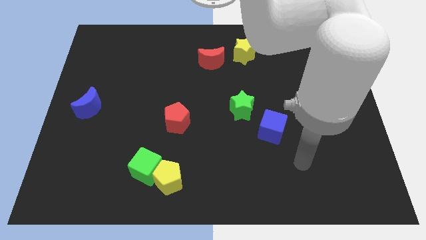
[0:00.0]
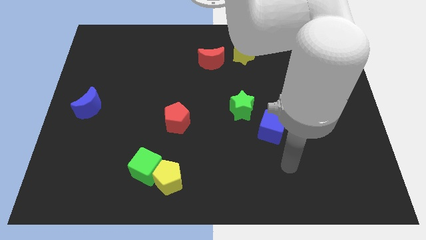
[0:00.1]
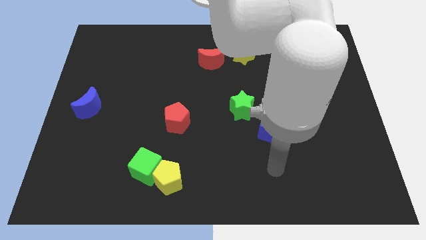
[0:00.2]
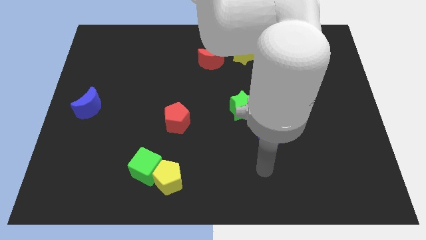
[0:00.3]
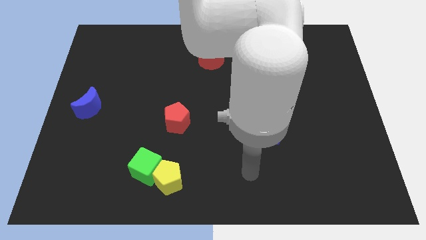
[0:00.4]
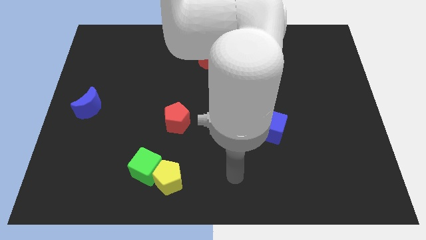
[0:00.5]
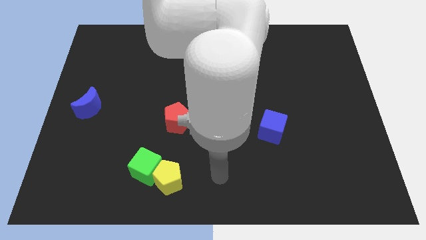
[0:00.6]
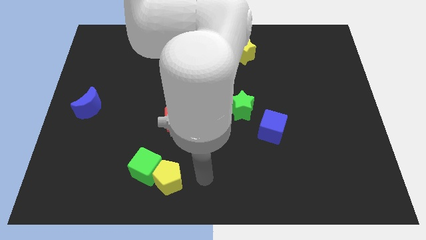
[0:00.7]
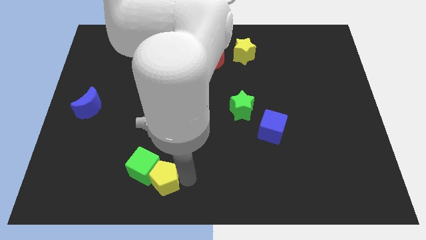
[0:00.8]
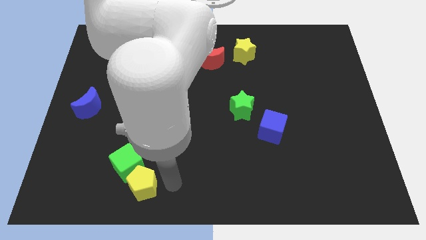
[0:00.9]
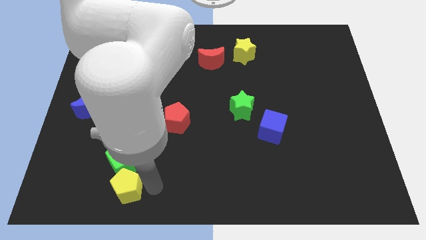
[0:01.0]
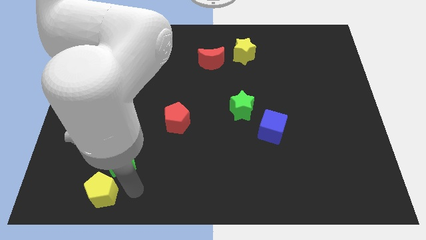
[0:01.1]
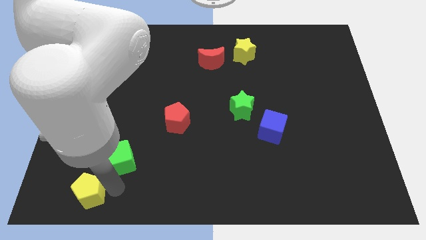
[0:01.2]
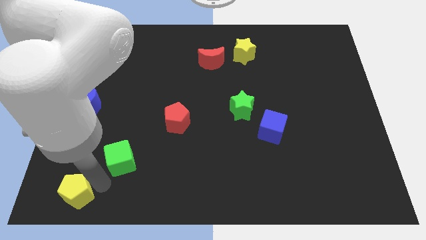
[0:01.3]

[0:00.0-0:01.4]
separate the green cube from the yellow pentagon

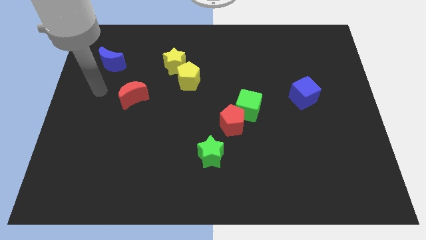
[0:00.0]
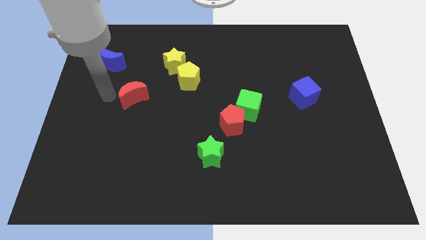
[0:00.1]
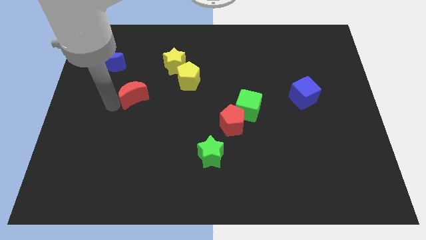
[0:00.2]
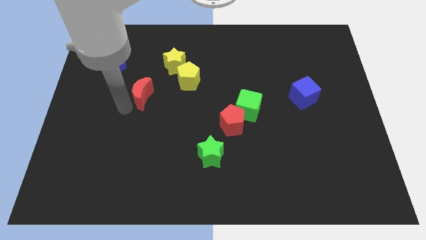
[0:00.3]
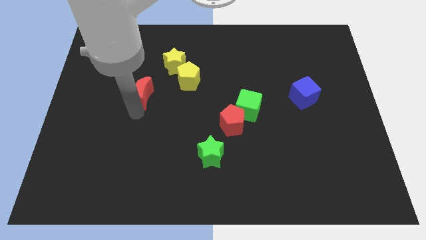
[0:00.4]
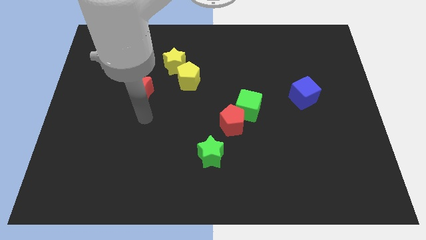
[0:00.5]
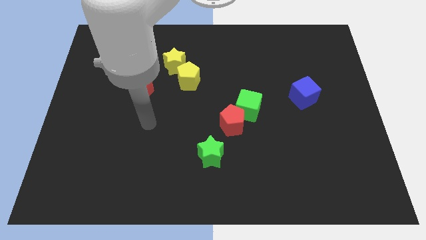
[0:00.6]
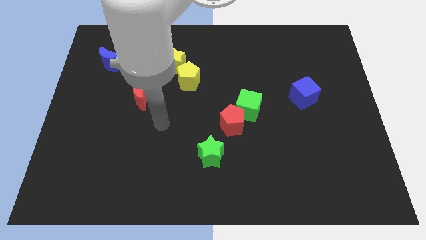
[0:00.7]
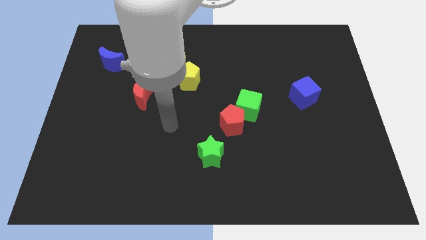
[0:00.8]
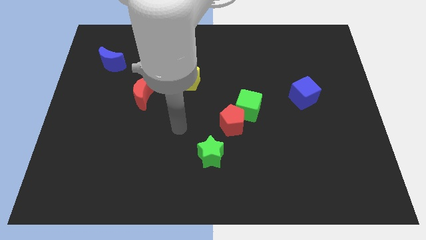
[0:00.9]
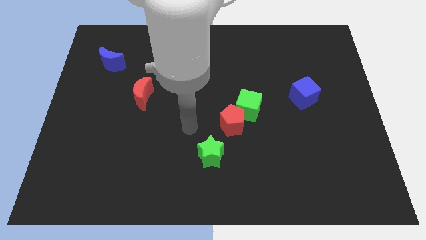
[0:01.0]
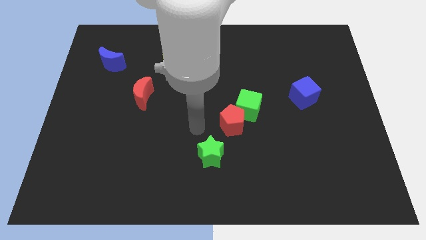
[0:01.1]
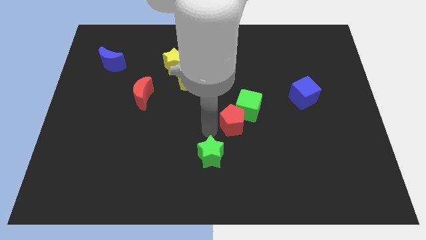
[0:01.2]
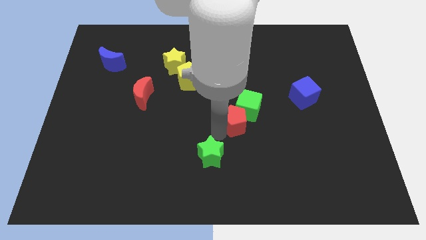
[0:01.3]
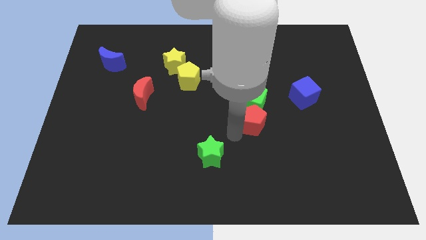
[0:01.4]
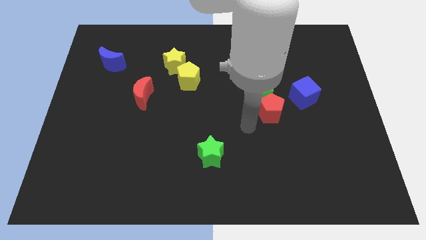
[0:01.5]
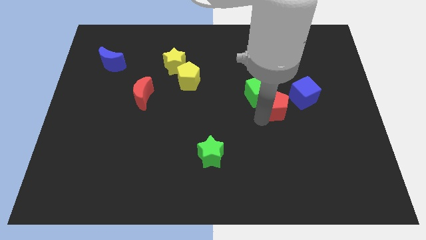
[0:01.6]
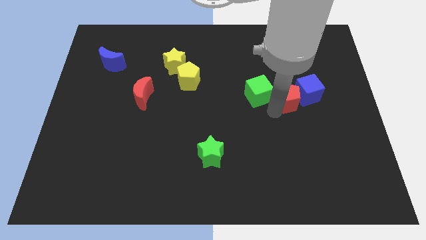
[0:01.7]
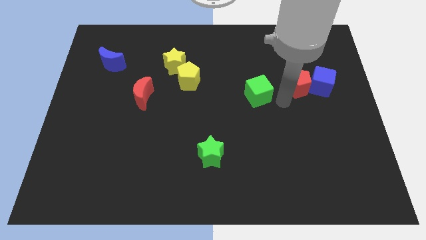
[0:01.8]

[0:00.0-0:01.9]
move the green cube away from the red pentagon

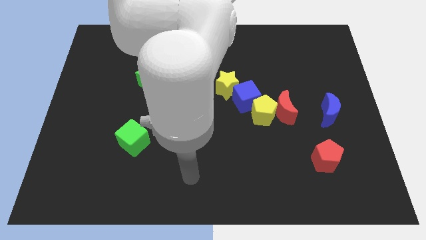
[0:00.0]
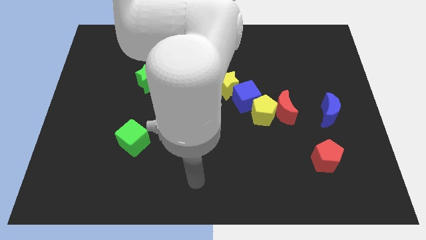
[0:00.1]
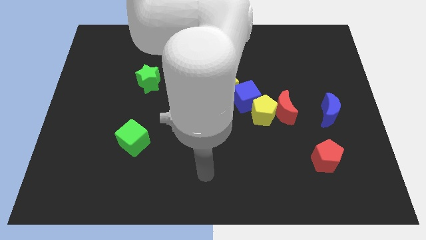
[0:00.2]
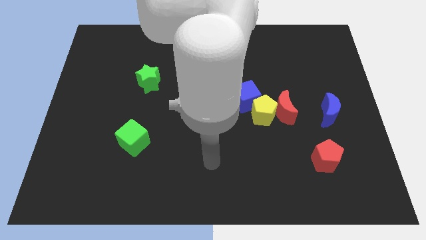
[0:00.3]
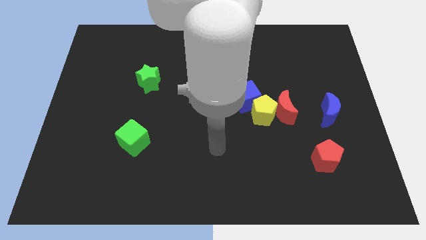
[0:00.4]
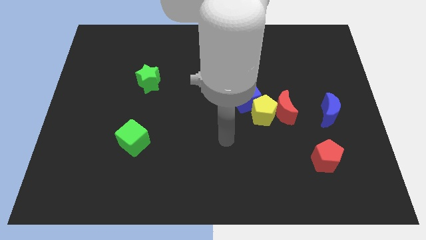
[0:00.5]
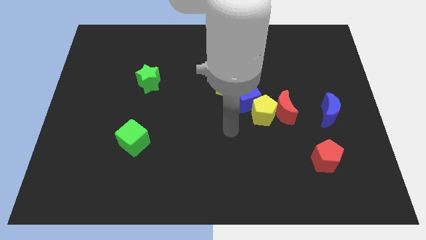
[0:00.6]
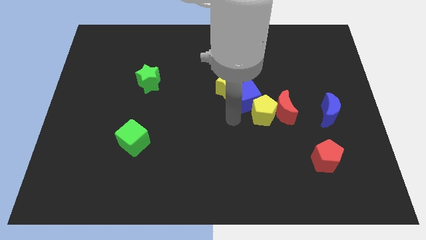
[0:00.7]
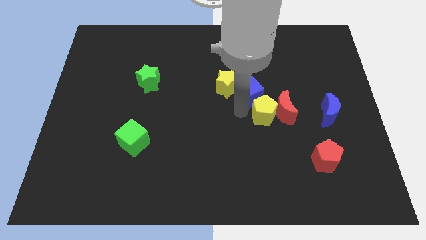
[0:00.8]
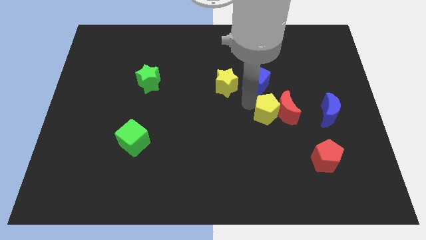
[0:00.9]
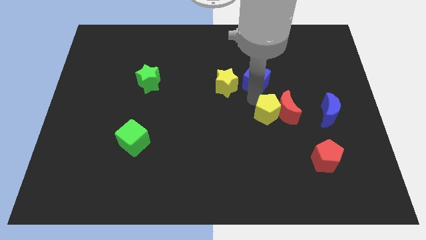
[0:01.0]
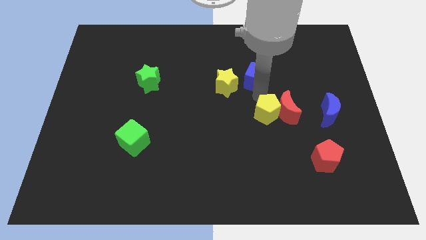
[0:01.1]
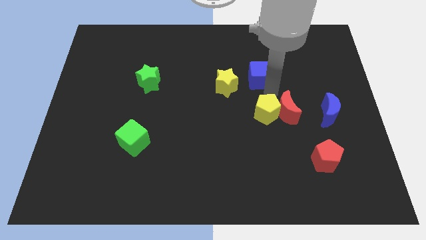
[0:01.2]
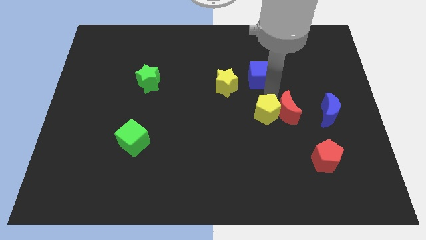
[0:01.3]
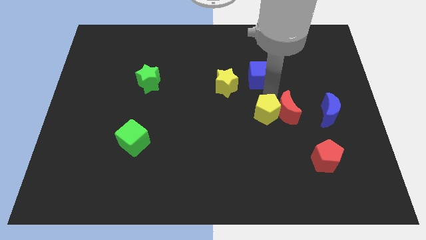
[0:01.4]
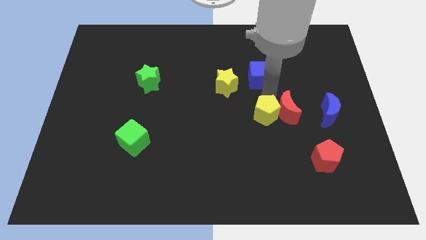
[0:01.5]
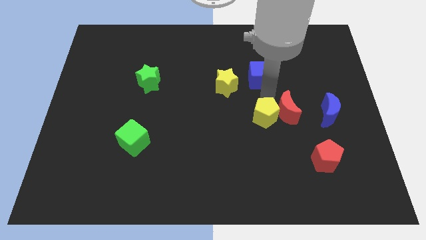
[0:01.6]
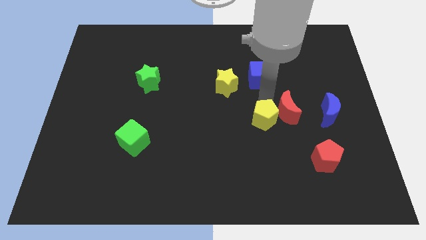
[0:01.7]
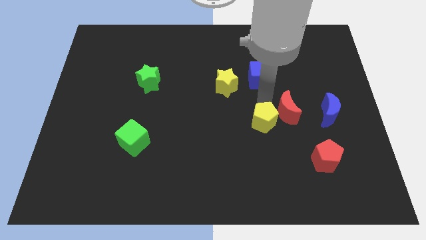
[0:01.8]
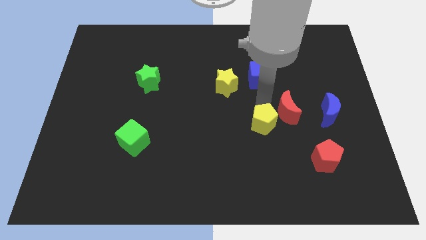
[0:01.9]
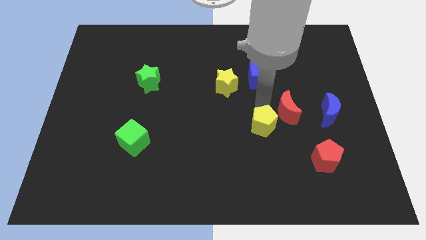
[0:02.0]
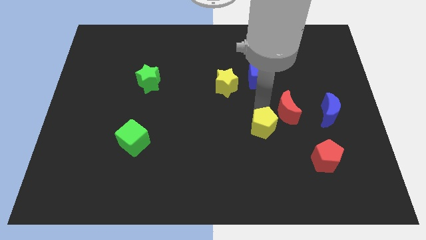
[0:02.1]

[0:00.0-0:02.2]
separate the yellow pentagon from the red moon and blue cube

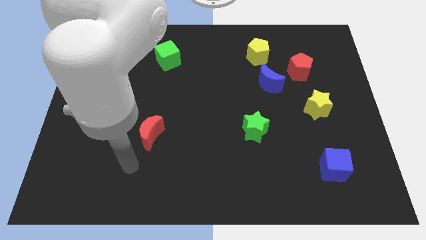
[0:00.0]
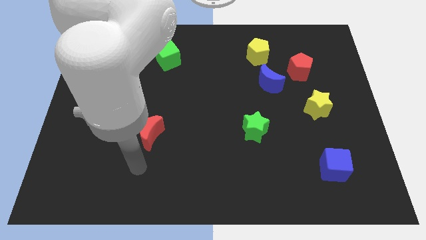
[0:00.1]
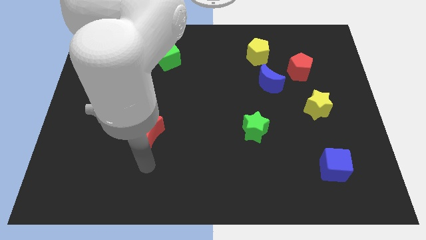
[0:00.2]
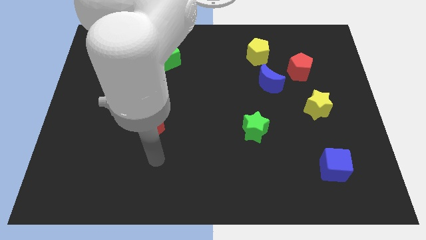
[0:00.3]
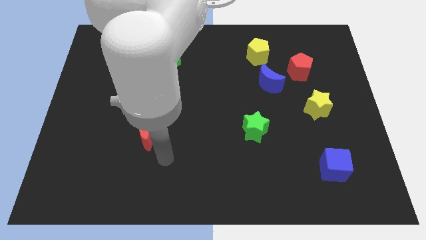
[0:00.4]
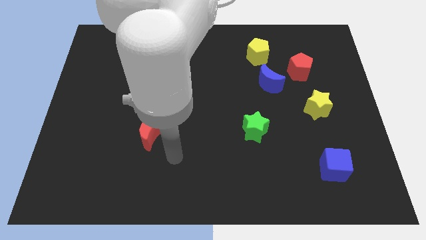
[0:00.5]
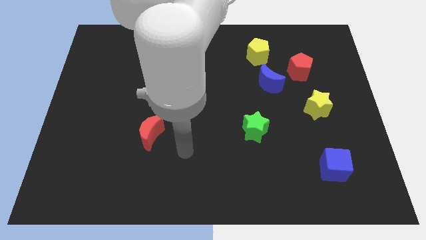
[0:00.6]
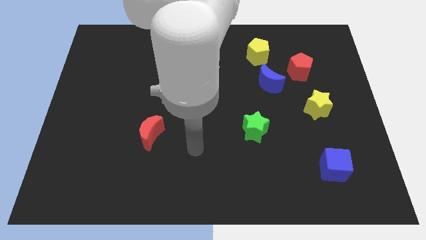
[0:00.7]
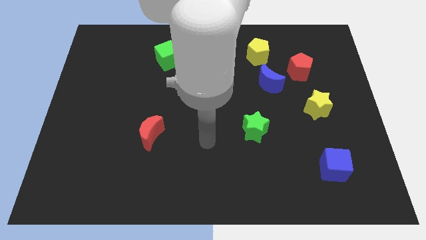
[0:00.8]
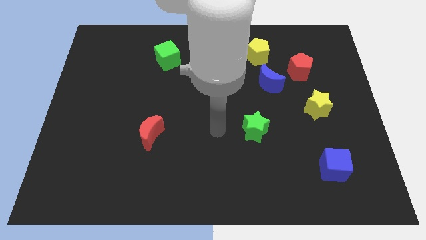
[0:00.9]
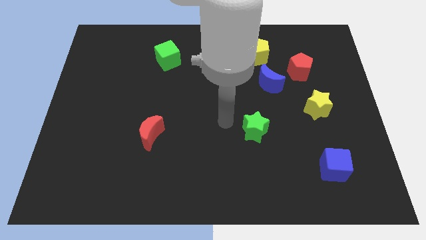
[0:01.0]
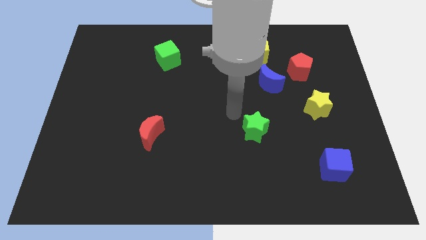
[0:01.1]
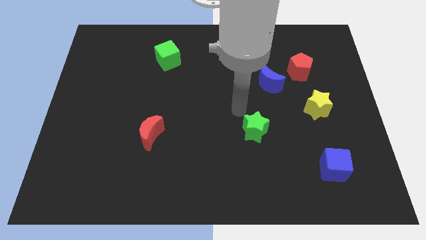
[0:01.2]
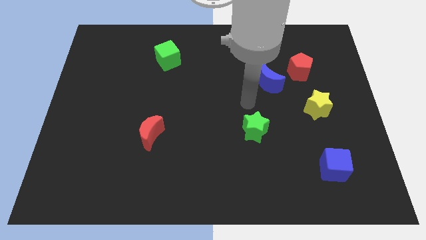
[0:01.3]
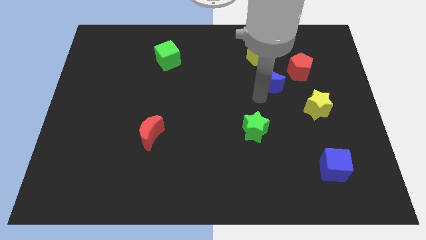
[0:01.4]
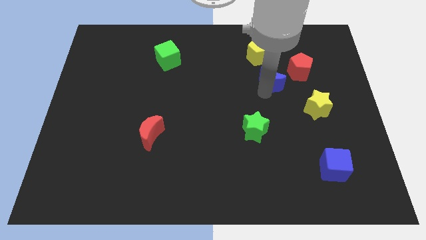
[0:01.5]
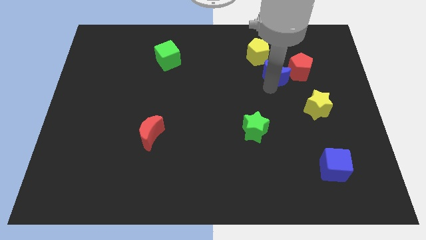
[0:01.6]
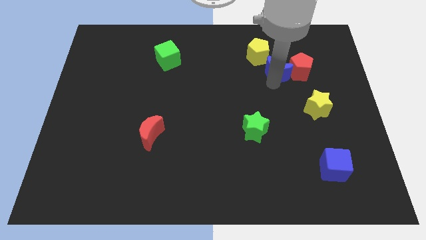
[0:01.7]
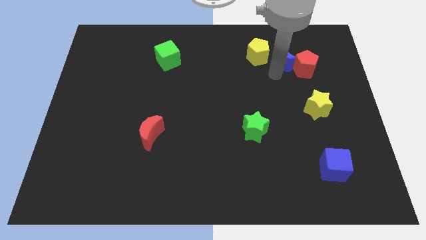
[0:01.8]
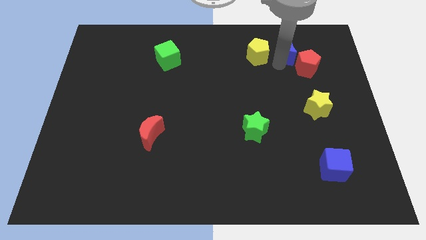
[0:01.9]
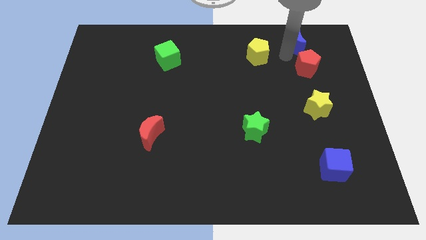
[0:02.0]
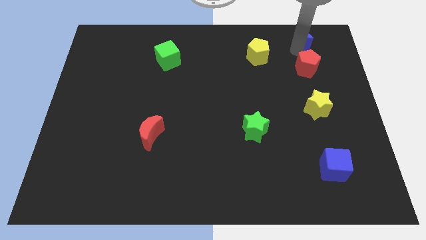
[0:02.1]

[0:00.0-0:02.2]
separate the red pentagon from the blue moon

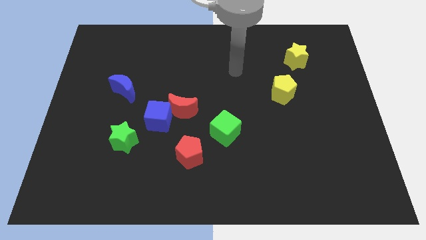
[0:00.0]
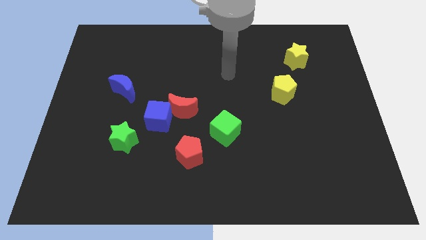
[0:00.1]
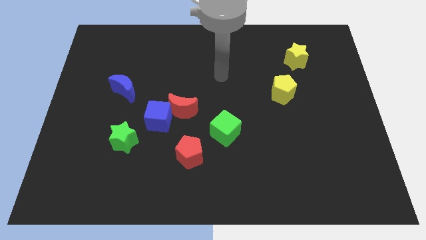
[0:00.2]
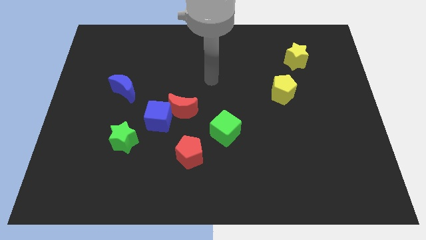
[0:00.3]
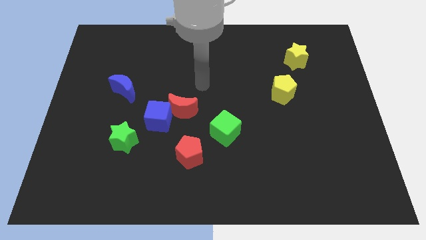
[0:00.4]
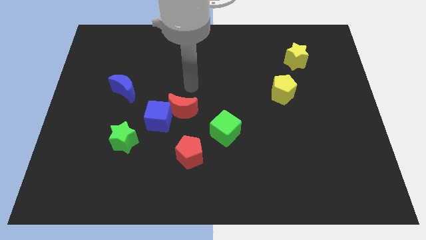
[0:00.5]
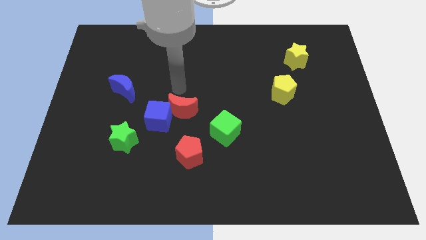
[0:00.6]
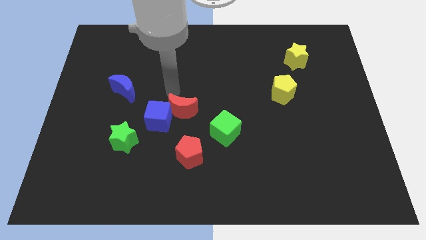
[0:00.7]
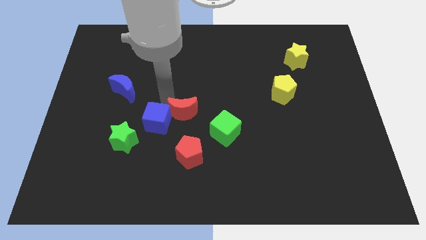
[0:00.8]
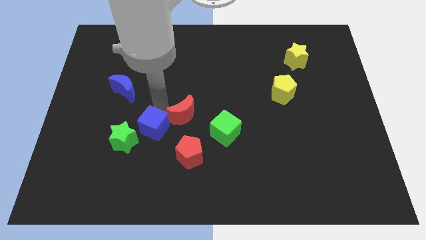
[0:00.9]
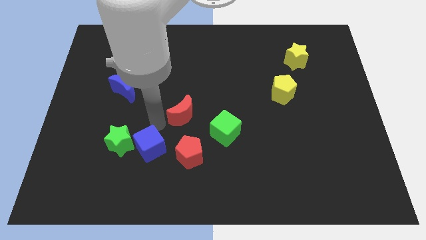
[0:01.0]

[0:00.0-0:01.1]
pull the red moon apart from the blue cube

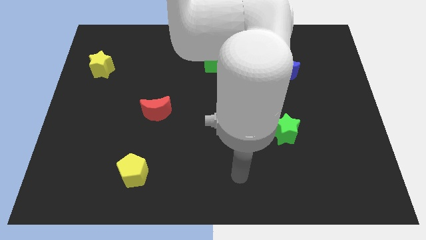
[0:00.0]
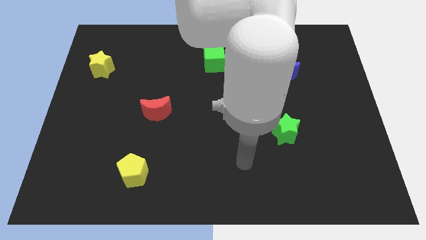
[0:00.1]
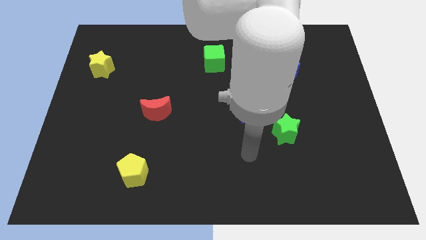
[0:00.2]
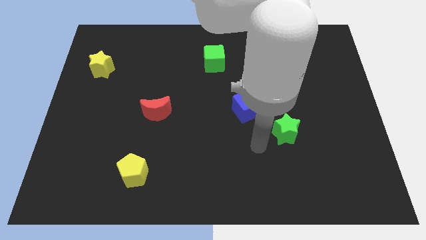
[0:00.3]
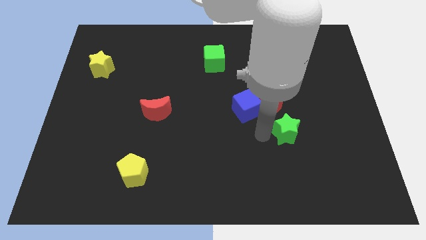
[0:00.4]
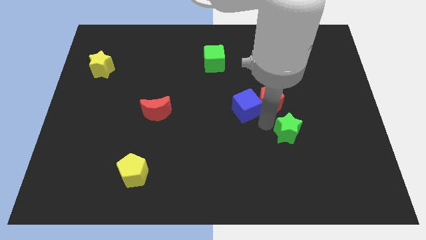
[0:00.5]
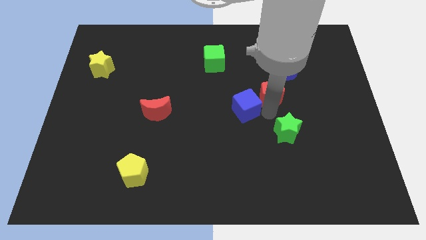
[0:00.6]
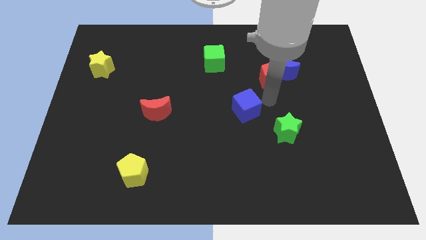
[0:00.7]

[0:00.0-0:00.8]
separate the blue cube from the red pentagon
